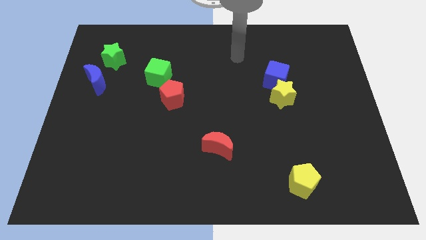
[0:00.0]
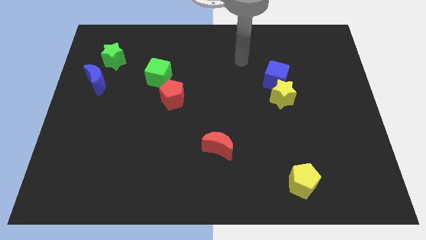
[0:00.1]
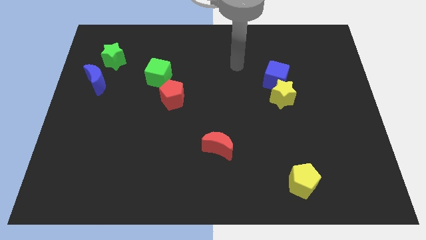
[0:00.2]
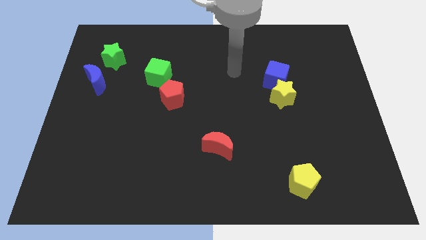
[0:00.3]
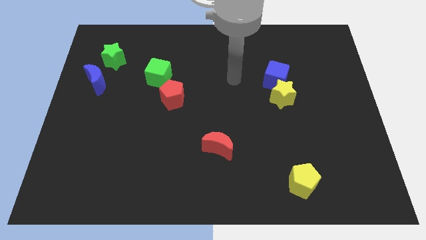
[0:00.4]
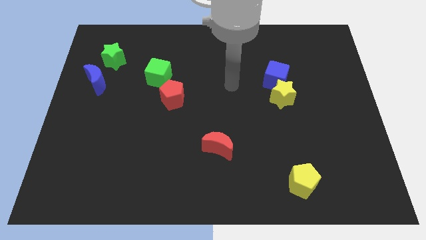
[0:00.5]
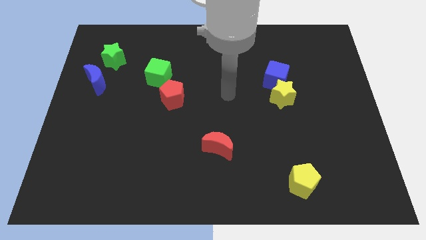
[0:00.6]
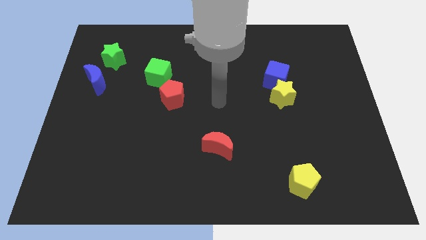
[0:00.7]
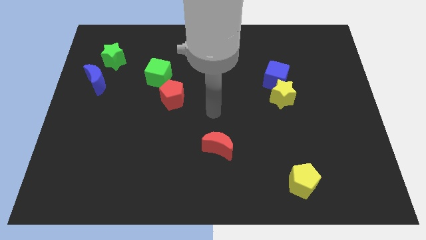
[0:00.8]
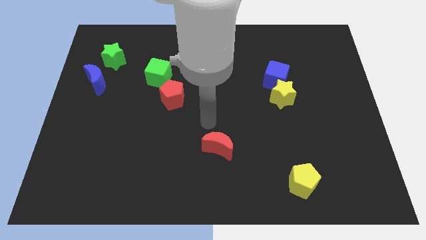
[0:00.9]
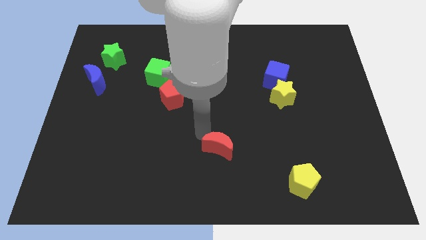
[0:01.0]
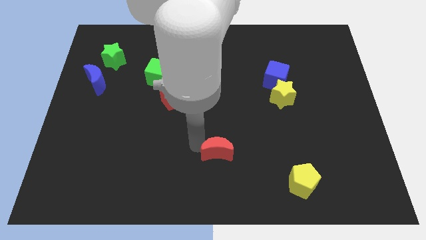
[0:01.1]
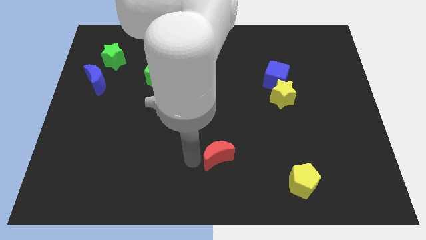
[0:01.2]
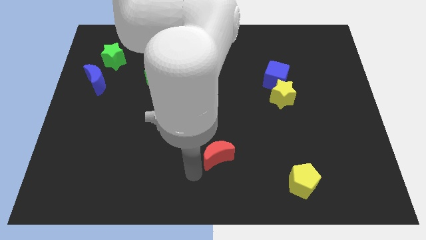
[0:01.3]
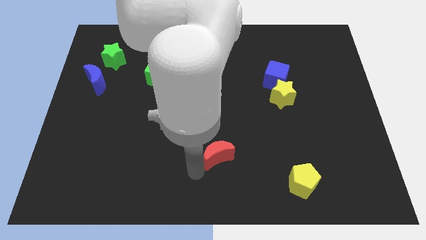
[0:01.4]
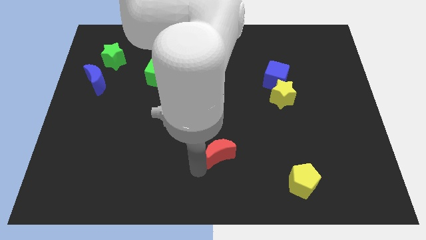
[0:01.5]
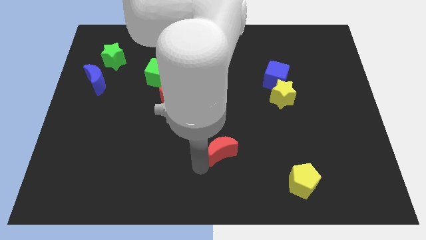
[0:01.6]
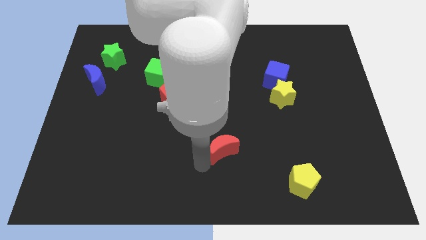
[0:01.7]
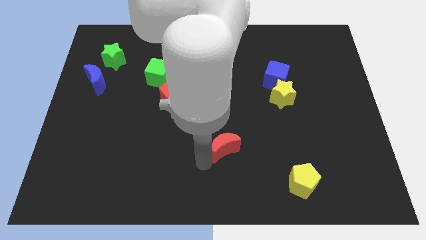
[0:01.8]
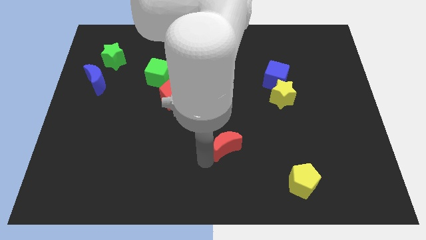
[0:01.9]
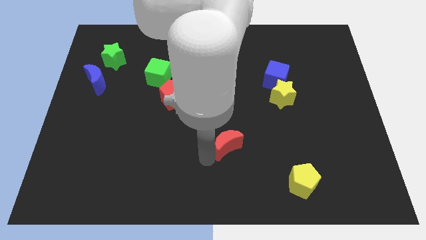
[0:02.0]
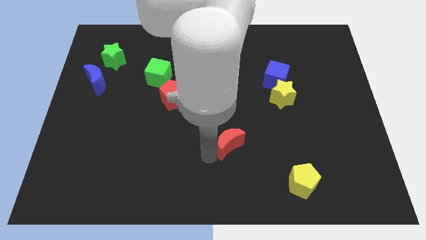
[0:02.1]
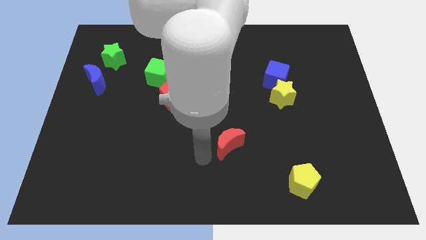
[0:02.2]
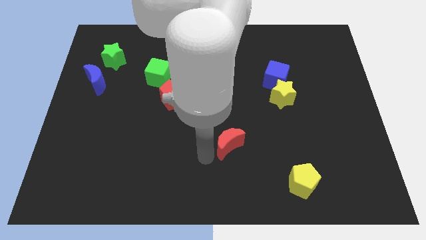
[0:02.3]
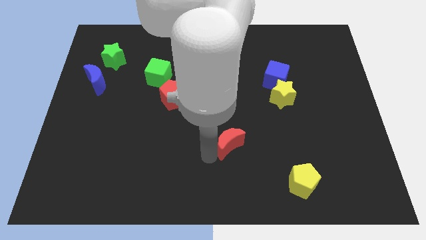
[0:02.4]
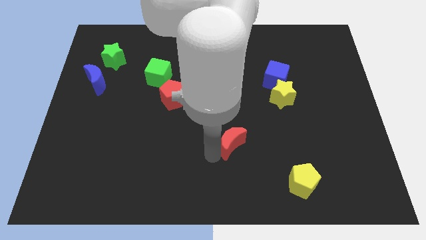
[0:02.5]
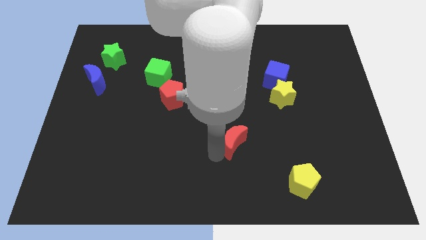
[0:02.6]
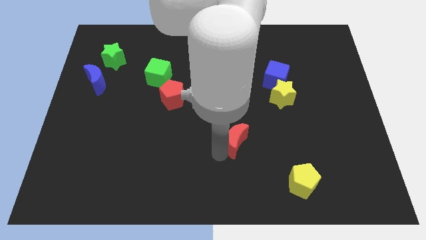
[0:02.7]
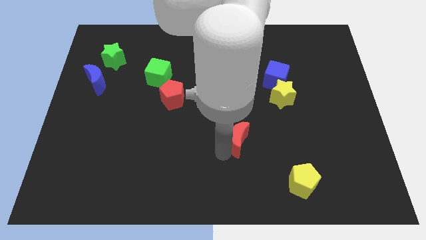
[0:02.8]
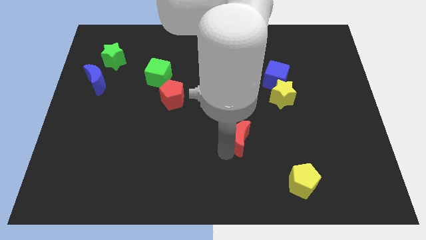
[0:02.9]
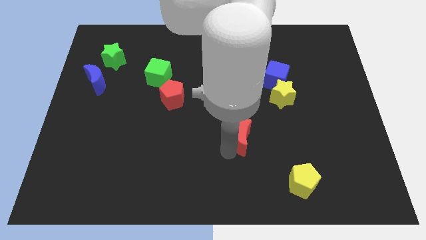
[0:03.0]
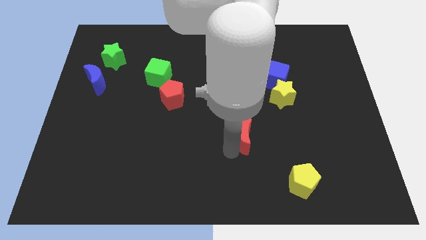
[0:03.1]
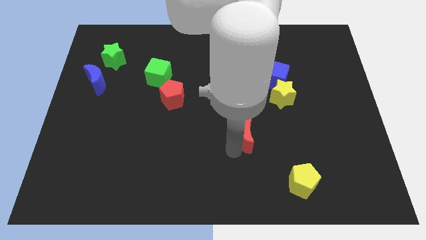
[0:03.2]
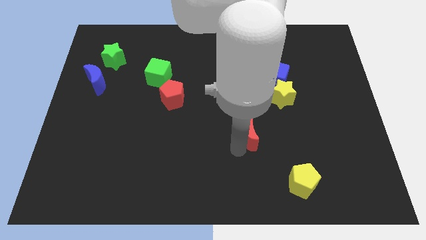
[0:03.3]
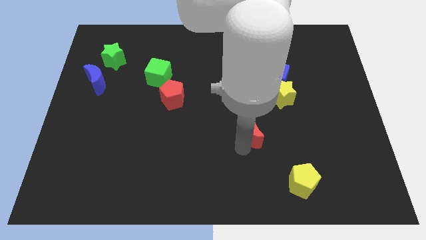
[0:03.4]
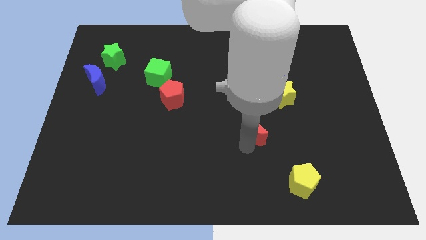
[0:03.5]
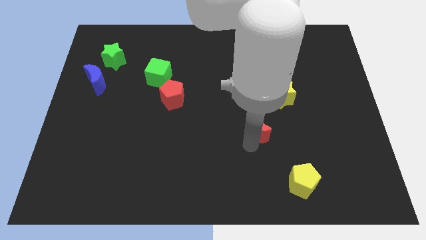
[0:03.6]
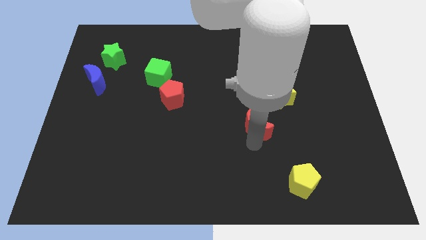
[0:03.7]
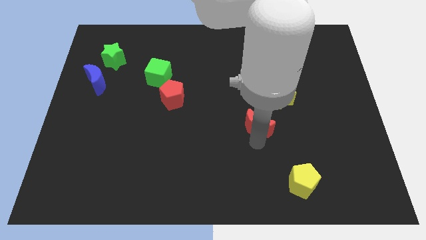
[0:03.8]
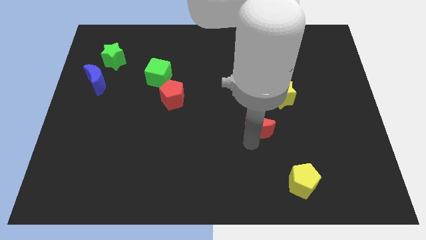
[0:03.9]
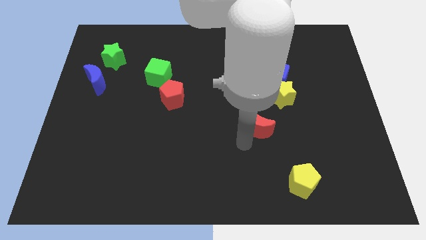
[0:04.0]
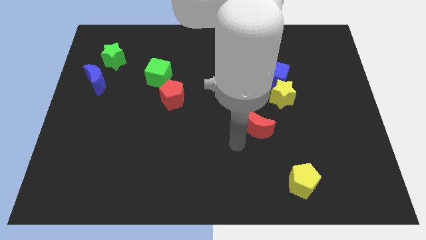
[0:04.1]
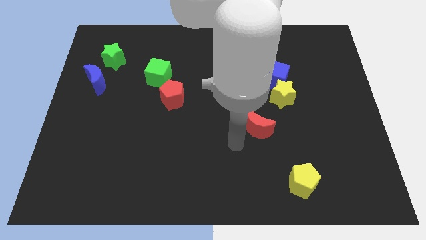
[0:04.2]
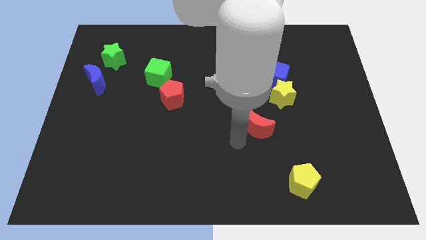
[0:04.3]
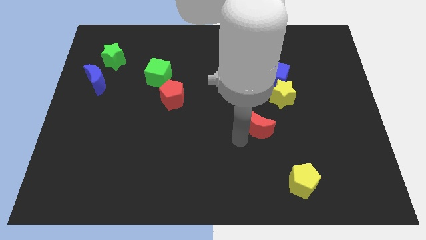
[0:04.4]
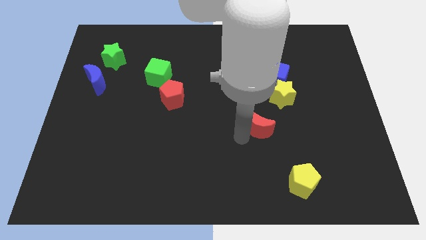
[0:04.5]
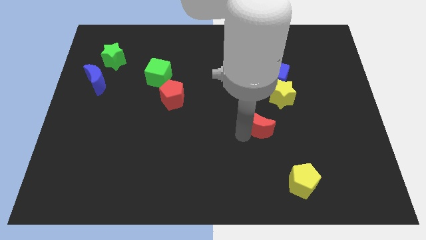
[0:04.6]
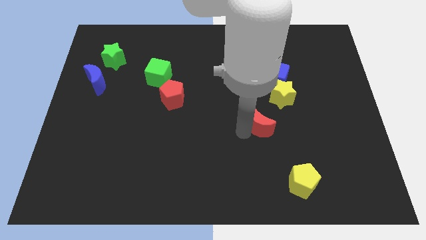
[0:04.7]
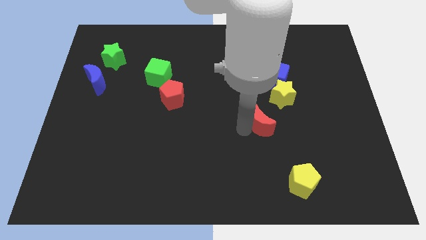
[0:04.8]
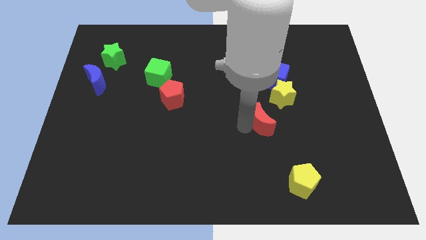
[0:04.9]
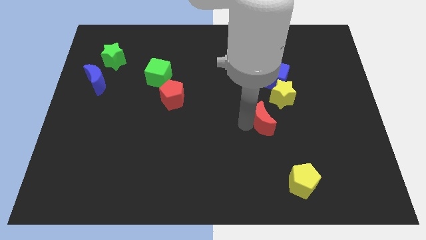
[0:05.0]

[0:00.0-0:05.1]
move the red moon to the bottom side of the blue cube

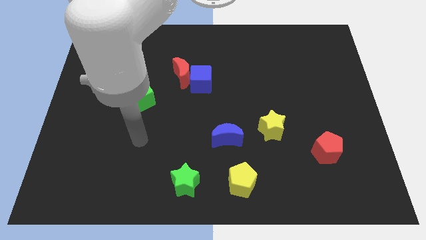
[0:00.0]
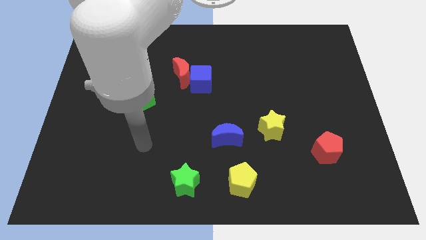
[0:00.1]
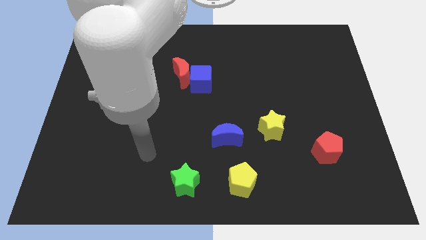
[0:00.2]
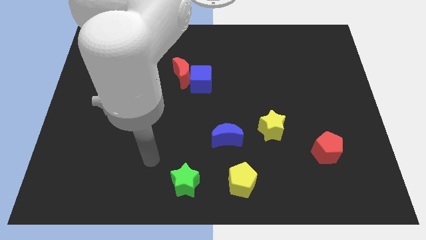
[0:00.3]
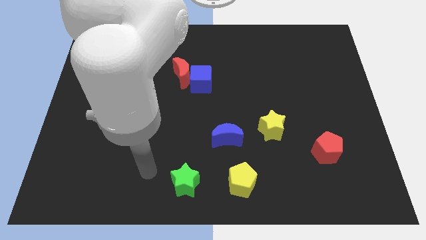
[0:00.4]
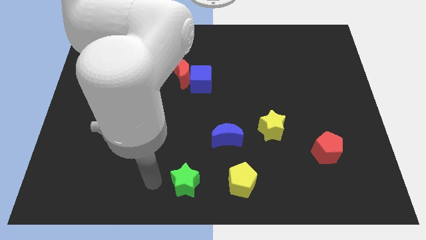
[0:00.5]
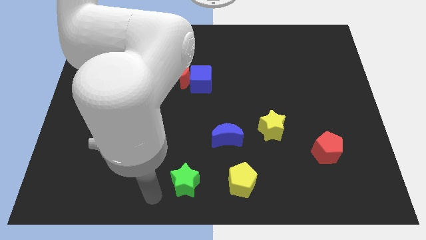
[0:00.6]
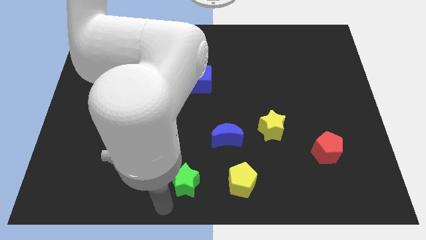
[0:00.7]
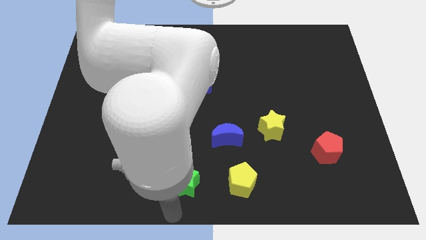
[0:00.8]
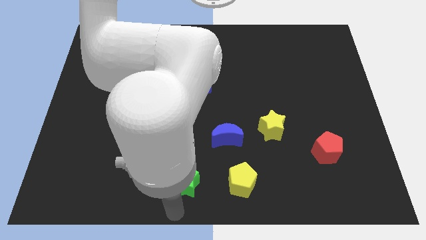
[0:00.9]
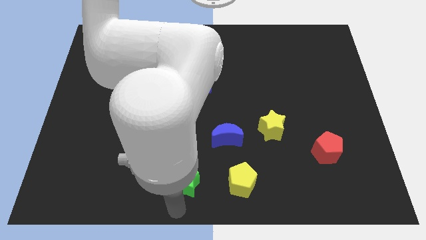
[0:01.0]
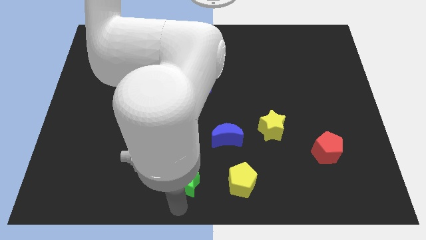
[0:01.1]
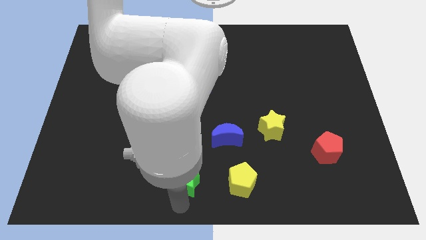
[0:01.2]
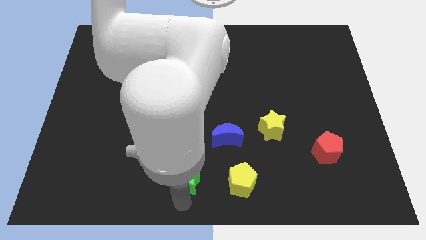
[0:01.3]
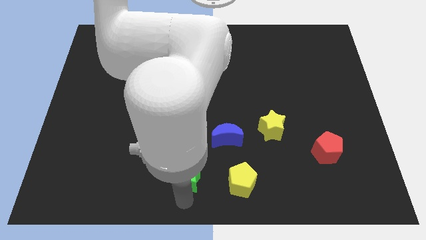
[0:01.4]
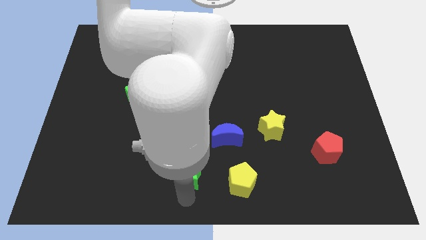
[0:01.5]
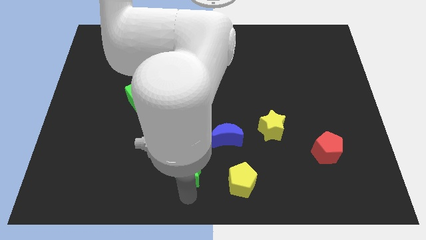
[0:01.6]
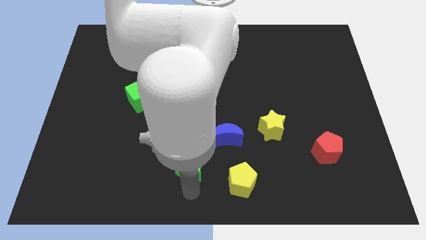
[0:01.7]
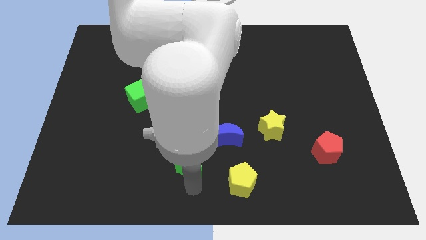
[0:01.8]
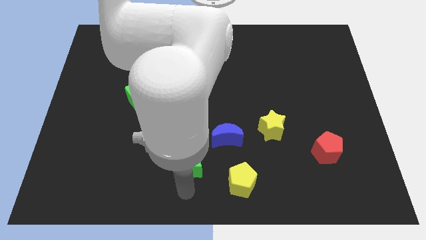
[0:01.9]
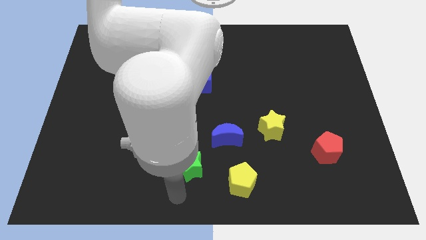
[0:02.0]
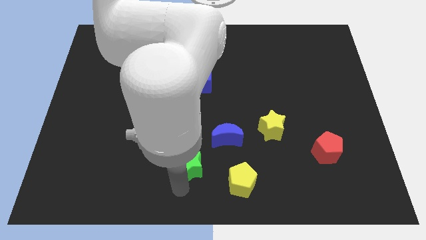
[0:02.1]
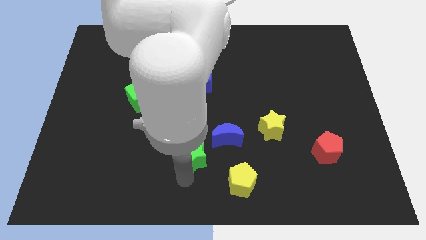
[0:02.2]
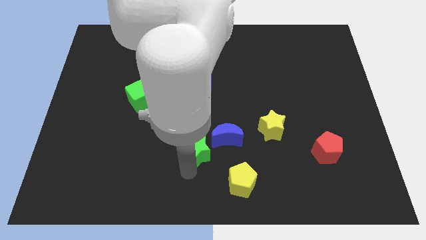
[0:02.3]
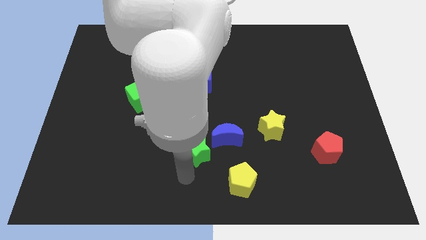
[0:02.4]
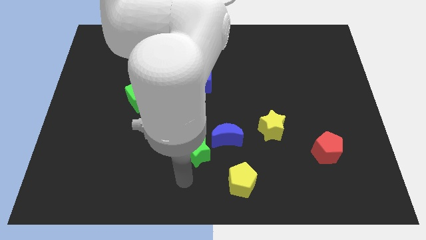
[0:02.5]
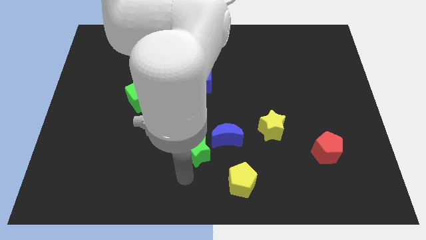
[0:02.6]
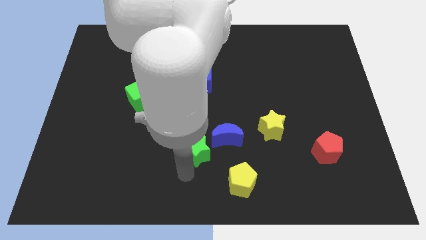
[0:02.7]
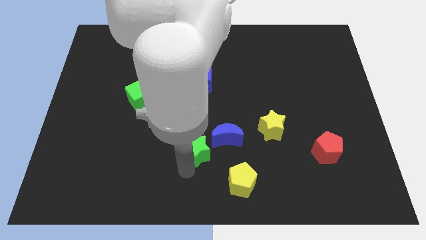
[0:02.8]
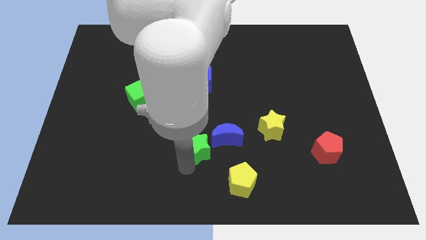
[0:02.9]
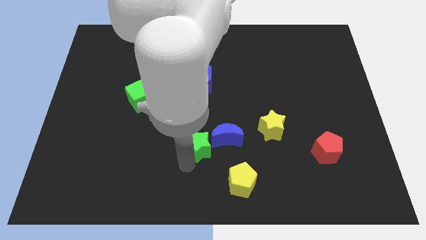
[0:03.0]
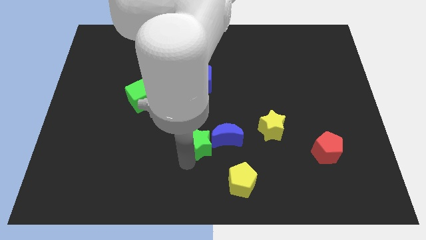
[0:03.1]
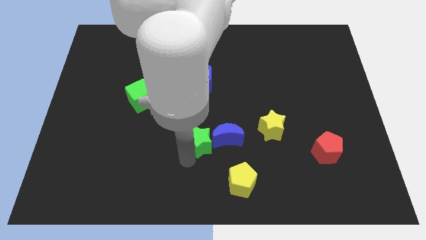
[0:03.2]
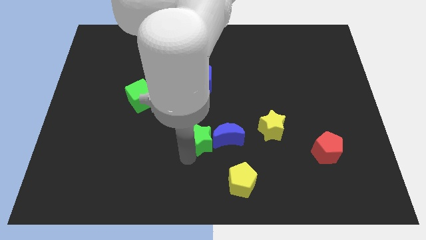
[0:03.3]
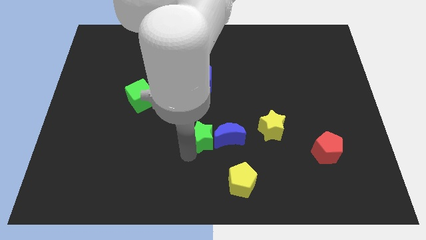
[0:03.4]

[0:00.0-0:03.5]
push the green star just left of the yellow star
